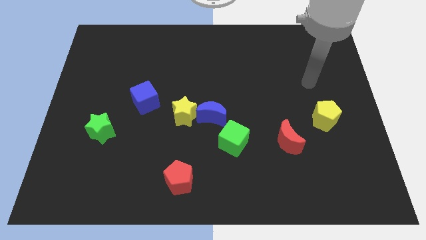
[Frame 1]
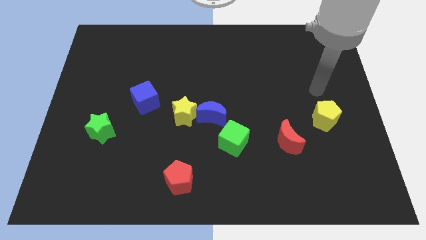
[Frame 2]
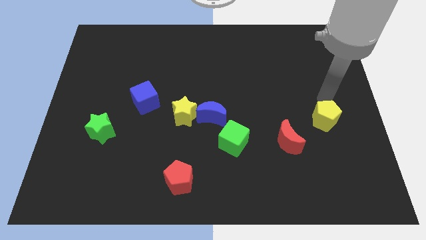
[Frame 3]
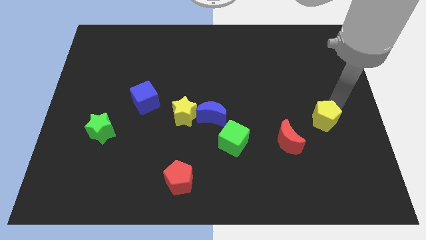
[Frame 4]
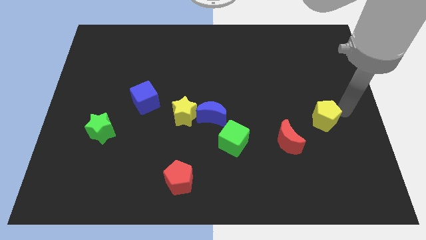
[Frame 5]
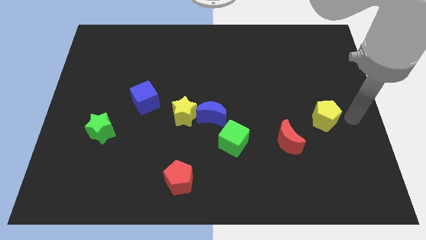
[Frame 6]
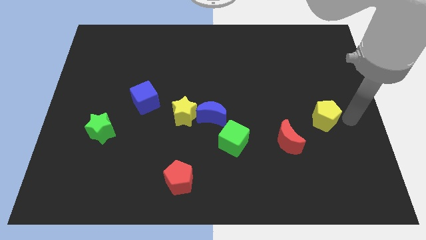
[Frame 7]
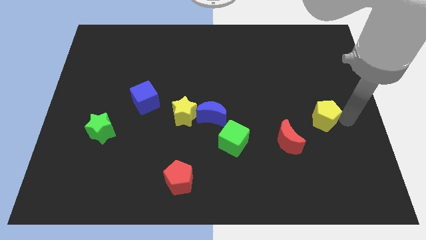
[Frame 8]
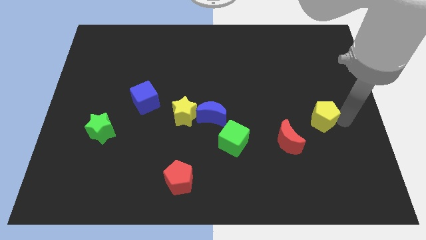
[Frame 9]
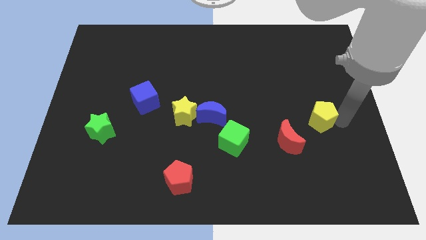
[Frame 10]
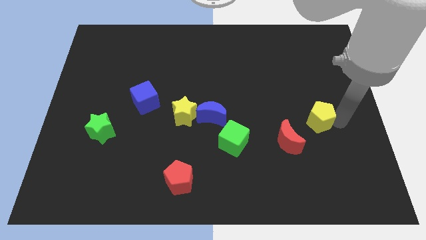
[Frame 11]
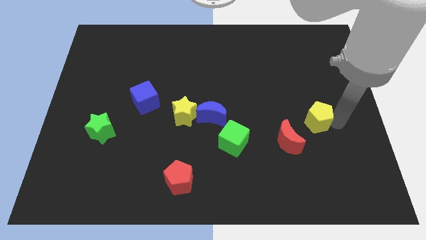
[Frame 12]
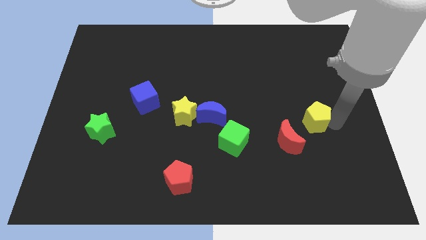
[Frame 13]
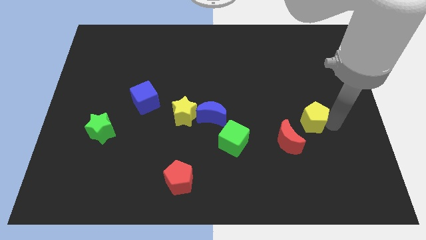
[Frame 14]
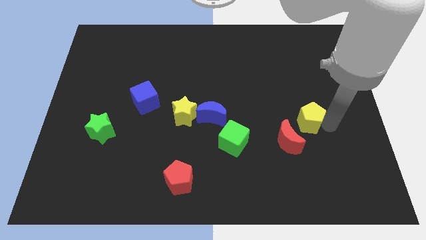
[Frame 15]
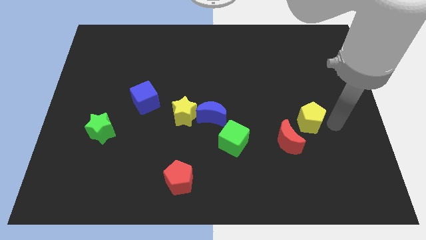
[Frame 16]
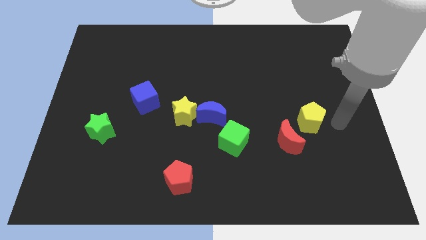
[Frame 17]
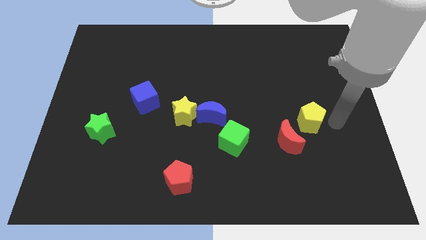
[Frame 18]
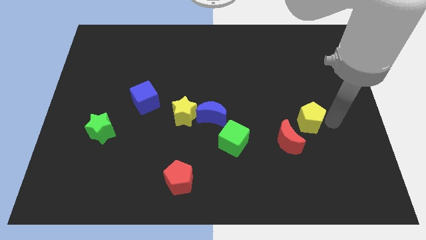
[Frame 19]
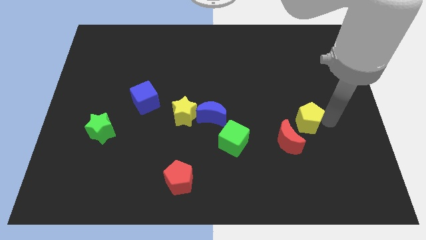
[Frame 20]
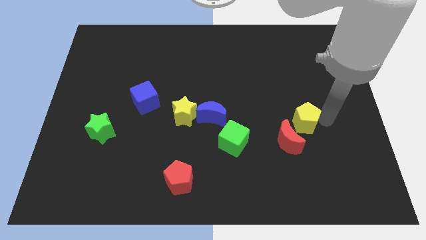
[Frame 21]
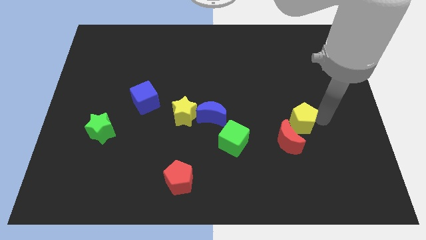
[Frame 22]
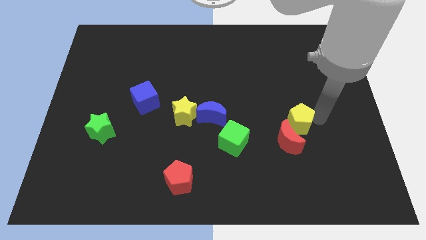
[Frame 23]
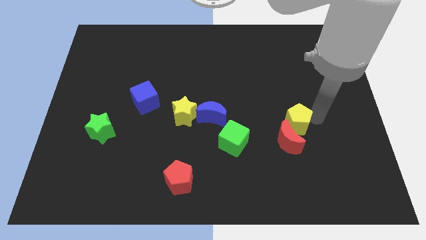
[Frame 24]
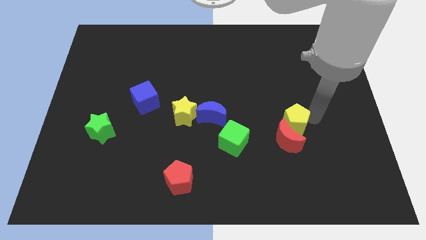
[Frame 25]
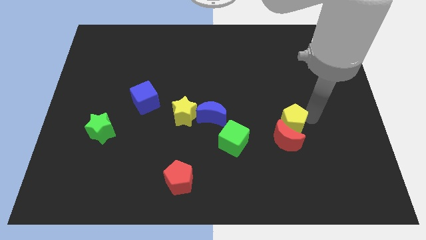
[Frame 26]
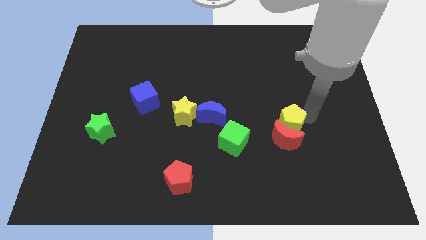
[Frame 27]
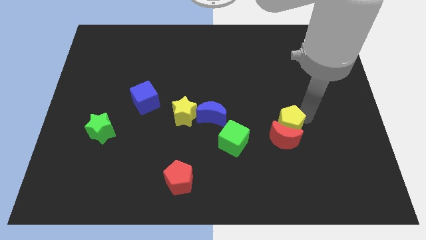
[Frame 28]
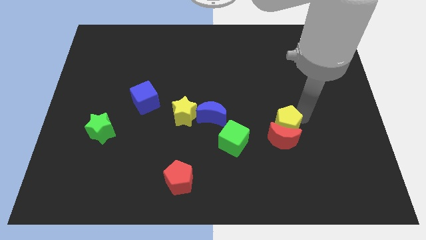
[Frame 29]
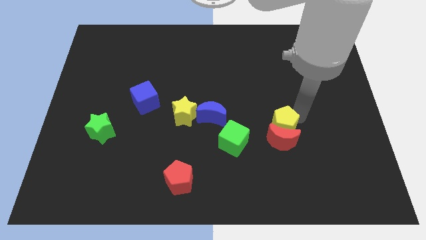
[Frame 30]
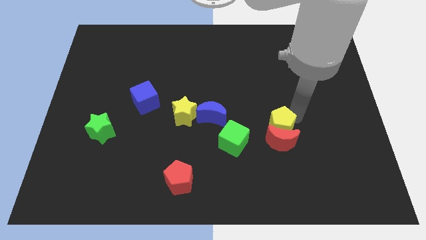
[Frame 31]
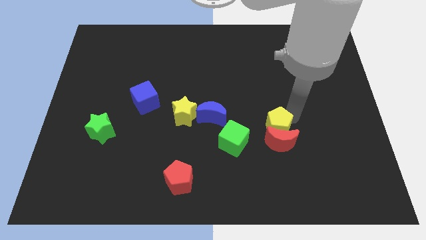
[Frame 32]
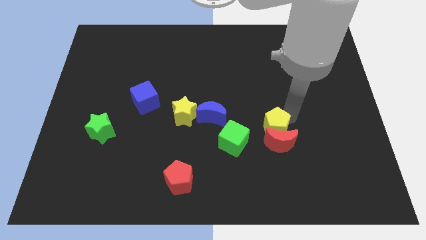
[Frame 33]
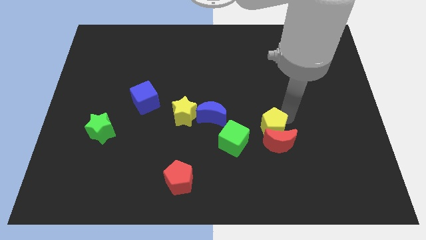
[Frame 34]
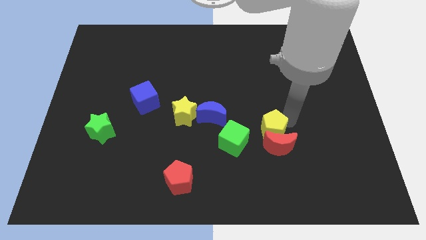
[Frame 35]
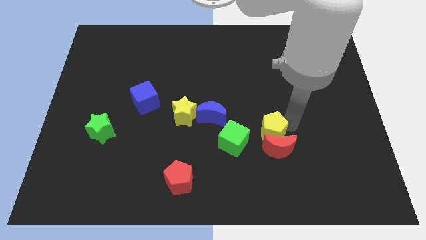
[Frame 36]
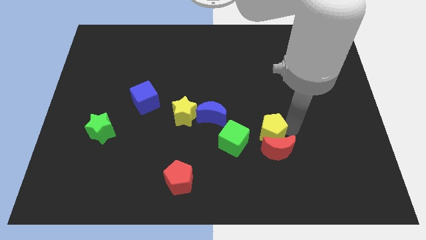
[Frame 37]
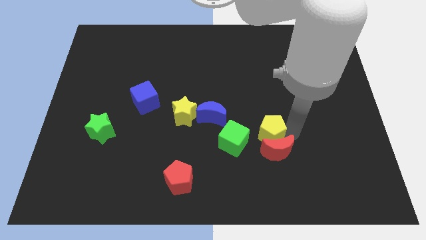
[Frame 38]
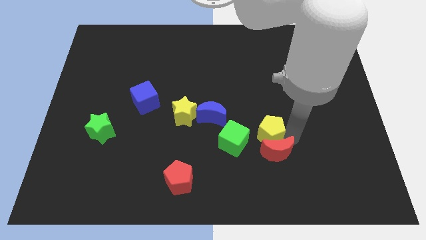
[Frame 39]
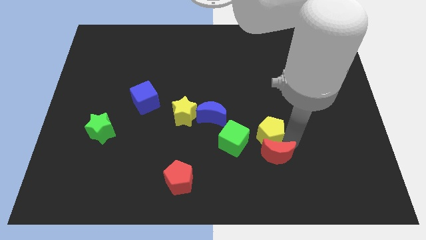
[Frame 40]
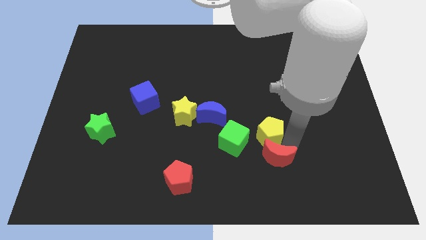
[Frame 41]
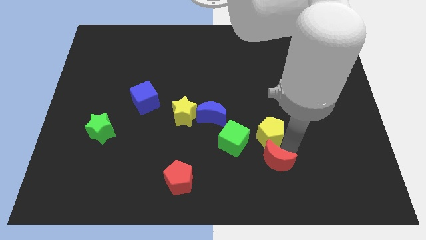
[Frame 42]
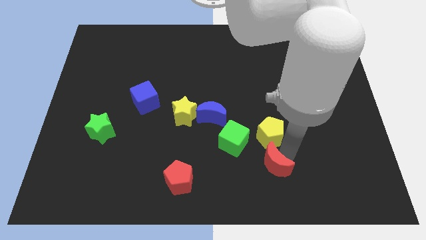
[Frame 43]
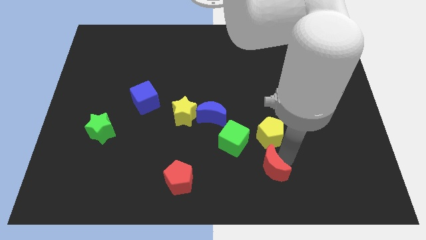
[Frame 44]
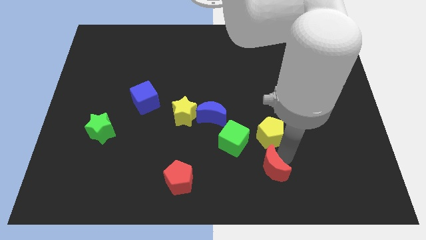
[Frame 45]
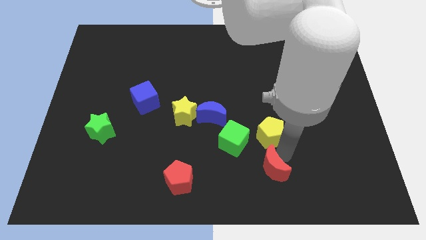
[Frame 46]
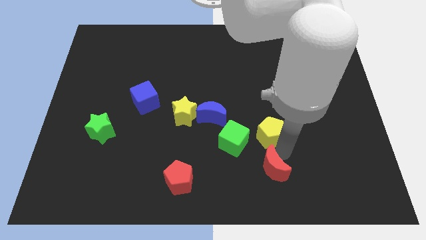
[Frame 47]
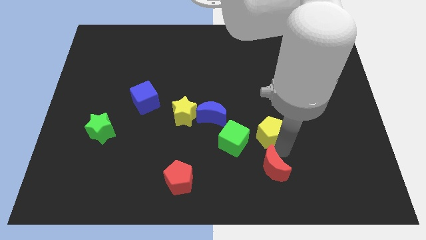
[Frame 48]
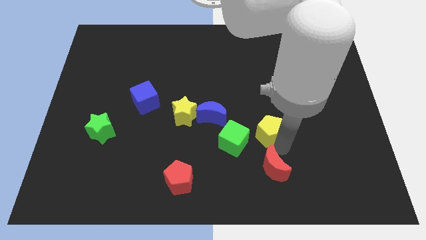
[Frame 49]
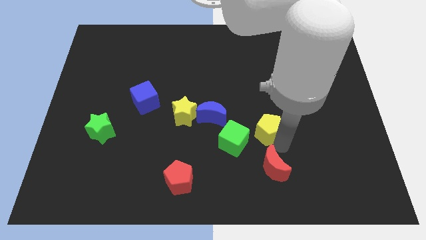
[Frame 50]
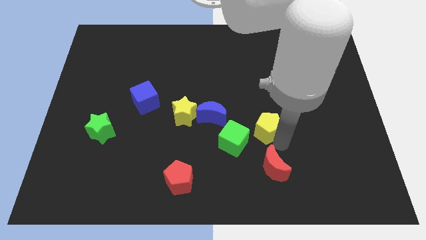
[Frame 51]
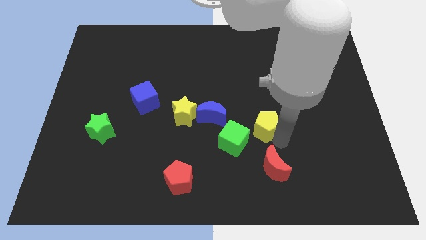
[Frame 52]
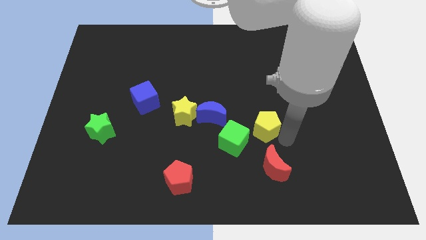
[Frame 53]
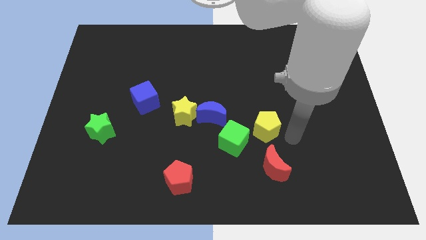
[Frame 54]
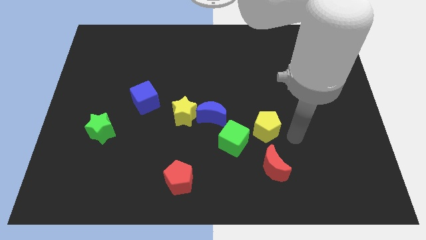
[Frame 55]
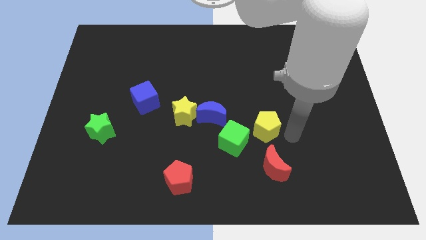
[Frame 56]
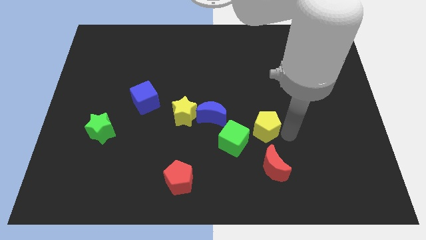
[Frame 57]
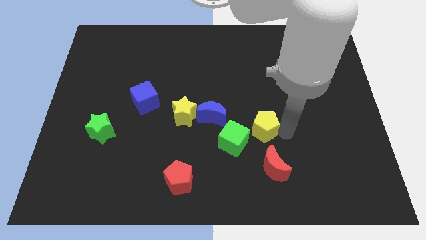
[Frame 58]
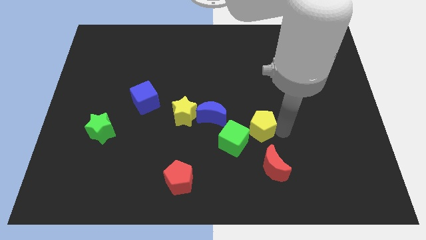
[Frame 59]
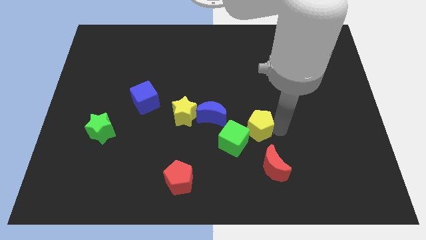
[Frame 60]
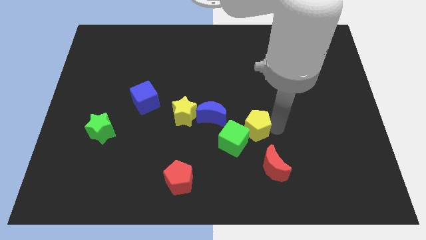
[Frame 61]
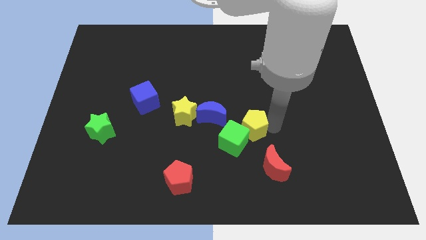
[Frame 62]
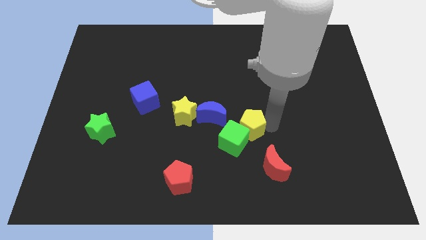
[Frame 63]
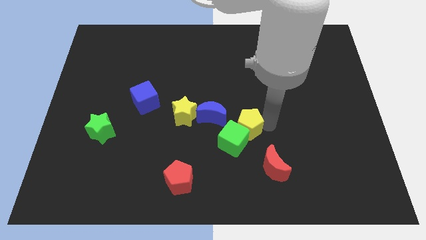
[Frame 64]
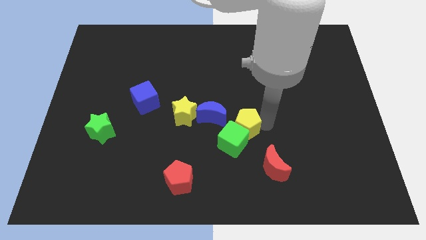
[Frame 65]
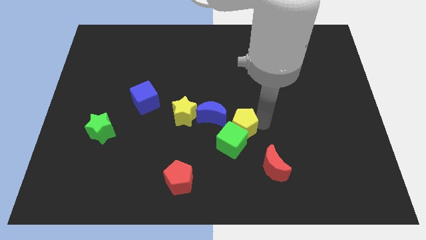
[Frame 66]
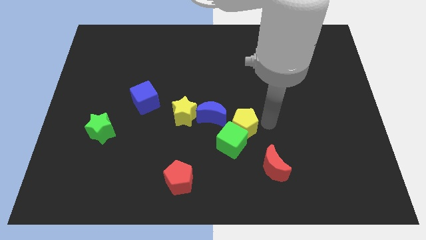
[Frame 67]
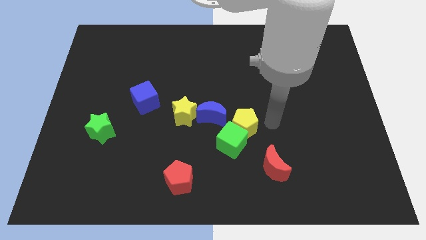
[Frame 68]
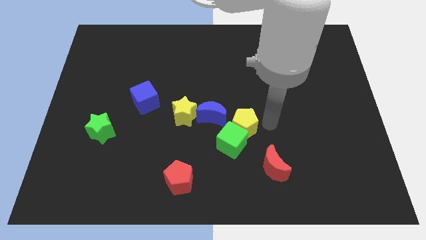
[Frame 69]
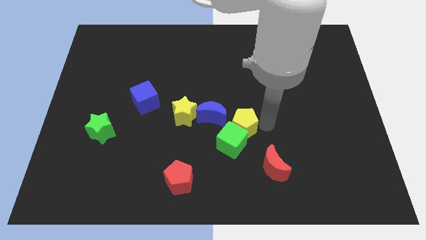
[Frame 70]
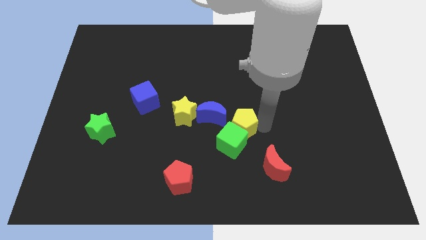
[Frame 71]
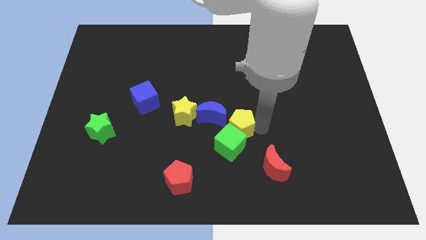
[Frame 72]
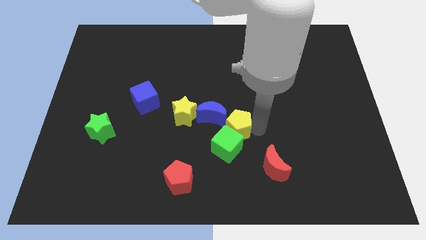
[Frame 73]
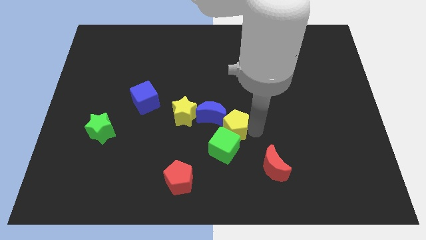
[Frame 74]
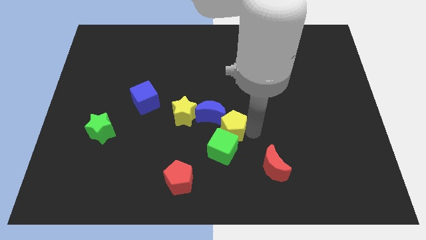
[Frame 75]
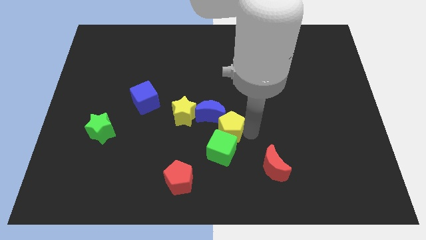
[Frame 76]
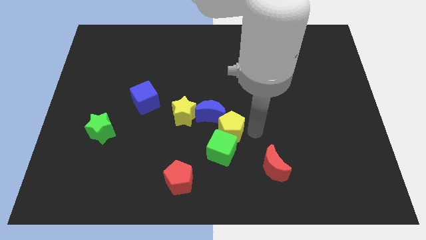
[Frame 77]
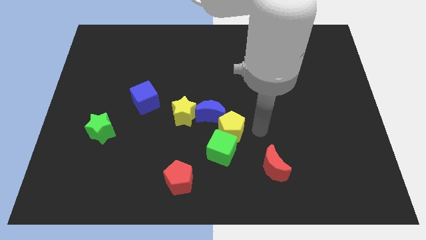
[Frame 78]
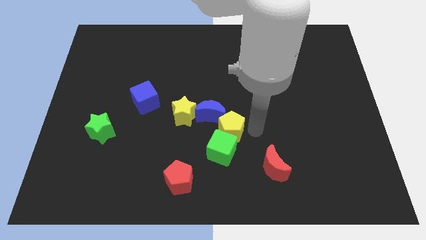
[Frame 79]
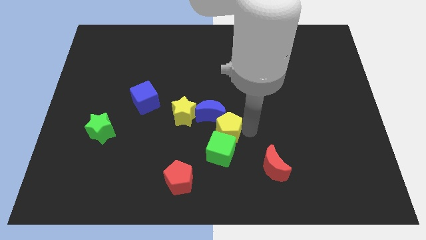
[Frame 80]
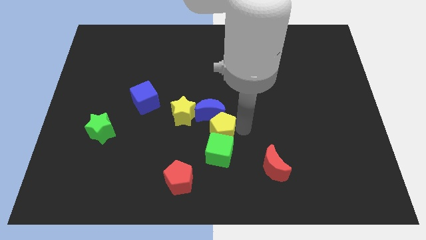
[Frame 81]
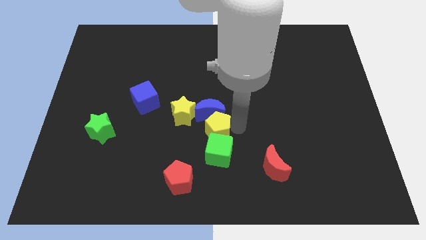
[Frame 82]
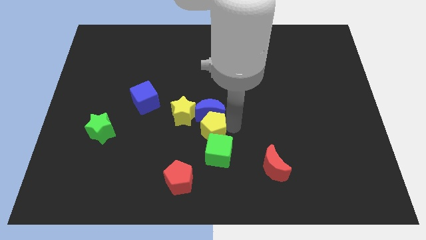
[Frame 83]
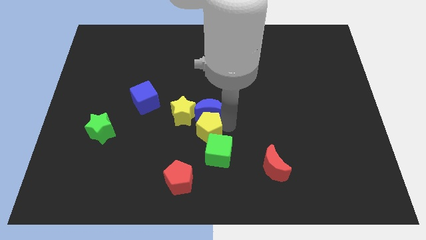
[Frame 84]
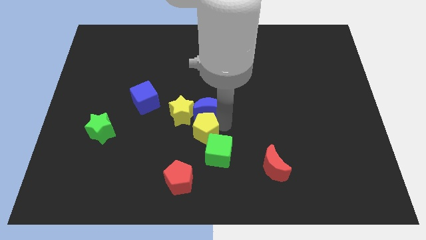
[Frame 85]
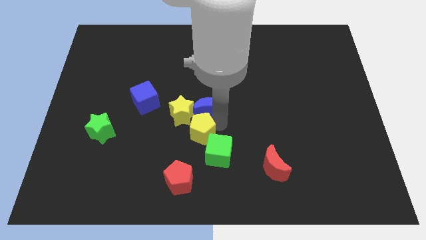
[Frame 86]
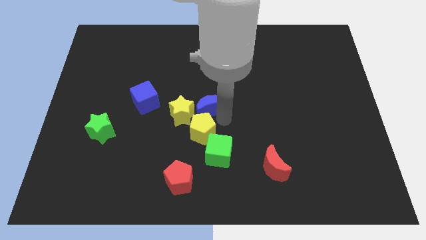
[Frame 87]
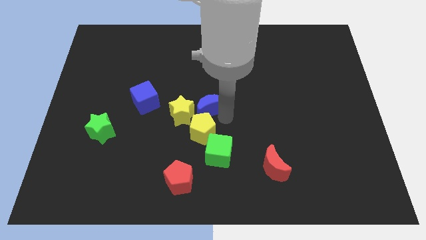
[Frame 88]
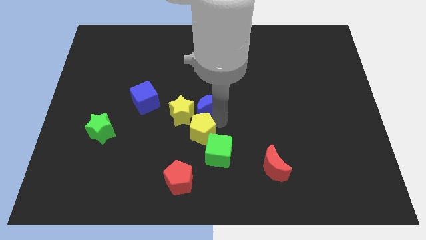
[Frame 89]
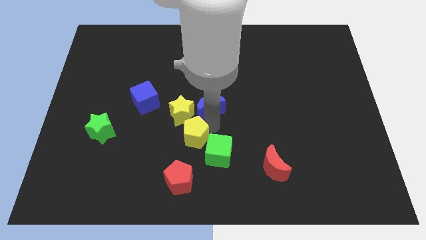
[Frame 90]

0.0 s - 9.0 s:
put the yellow pentagon to the left of the green cube
